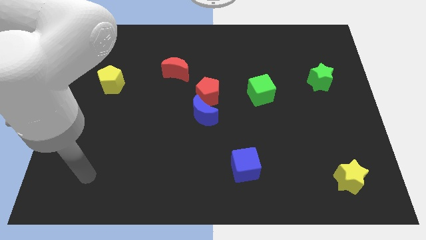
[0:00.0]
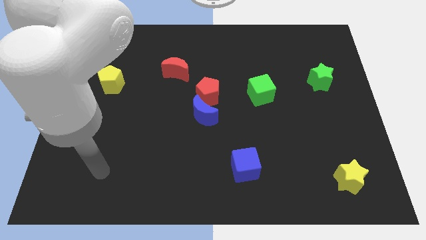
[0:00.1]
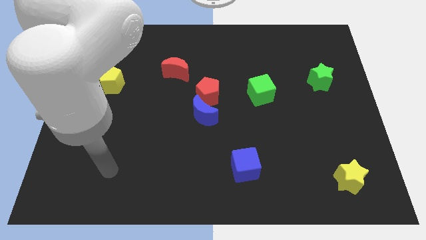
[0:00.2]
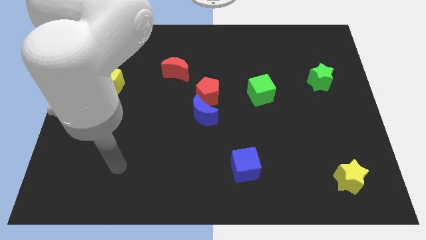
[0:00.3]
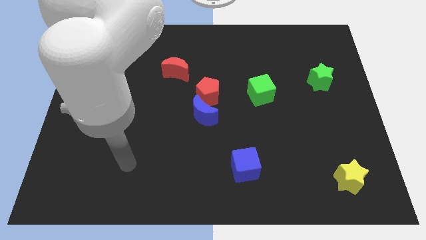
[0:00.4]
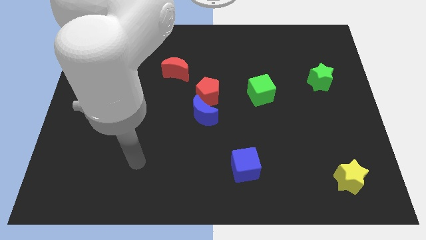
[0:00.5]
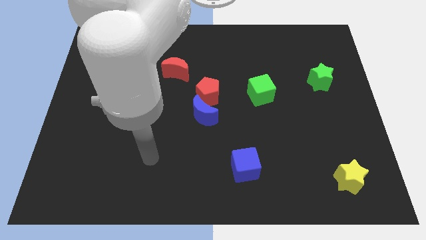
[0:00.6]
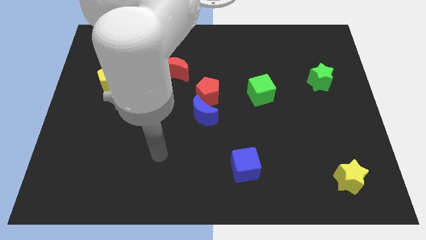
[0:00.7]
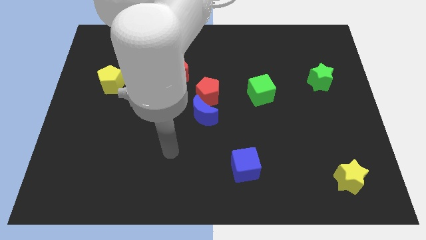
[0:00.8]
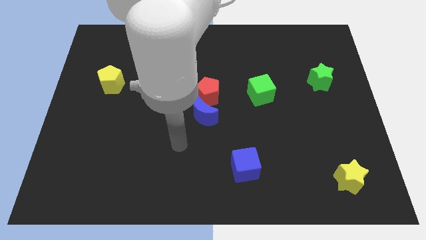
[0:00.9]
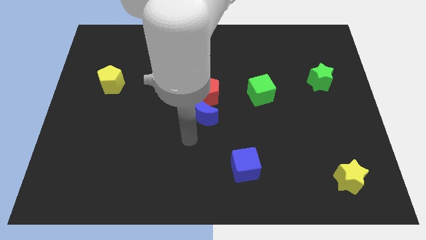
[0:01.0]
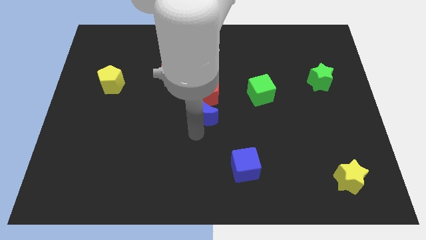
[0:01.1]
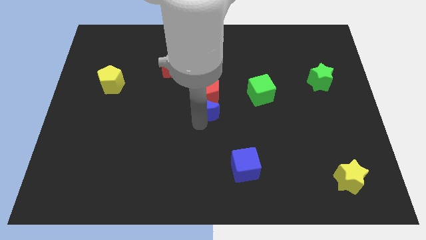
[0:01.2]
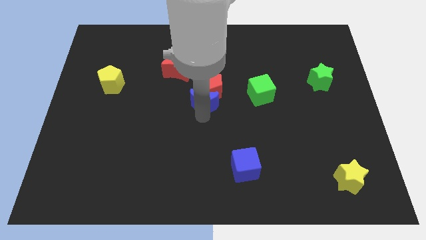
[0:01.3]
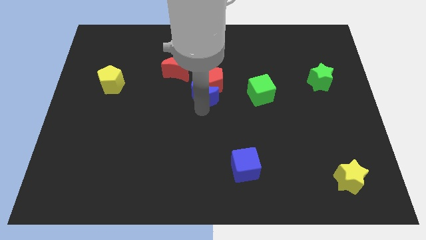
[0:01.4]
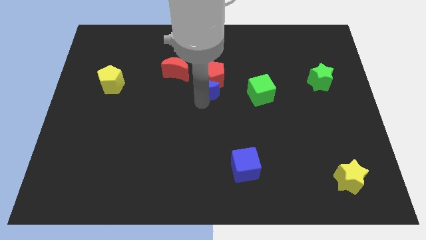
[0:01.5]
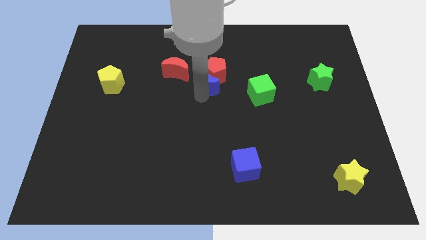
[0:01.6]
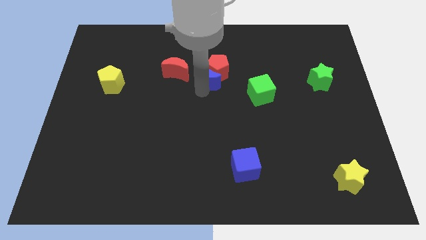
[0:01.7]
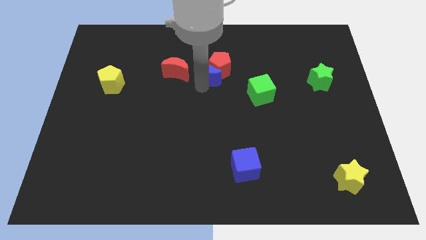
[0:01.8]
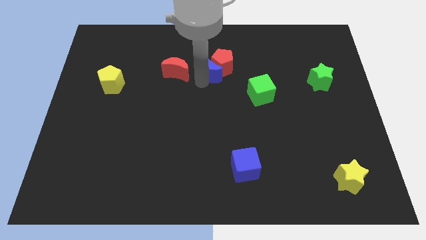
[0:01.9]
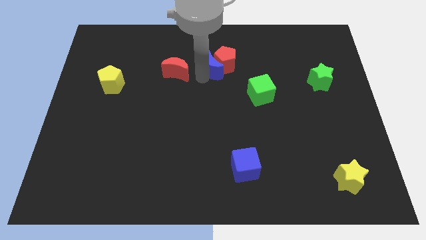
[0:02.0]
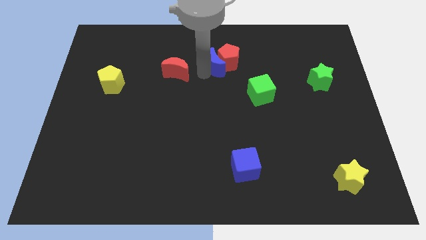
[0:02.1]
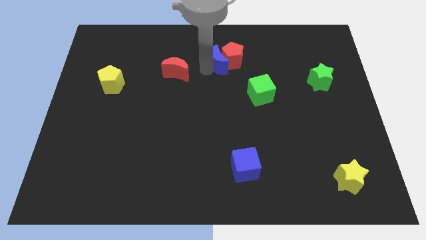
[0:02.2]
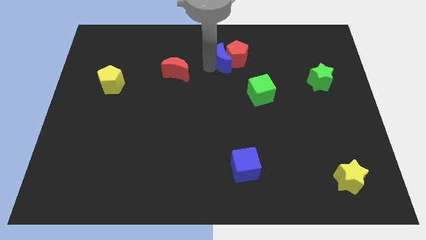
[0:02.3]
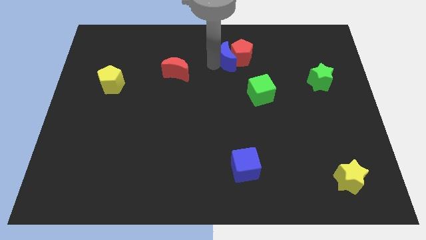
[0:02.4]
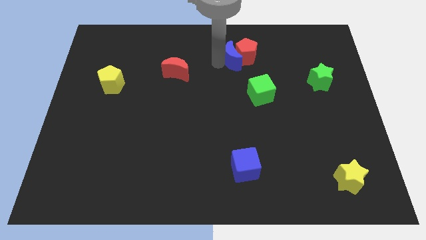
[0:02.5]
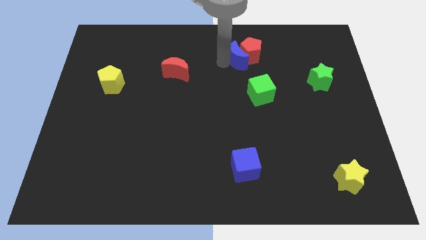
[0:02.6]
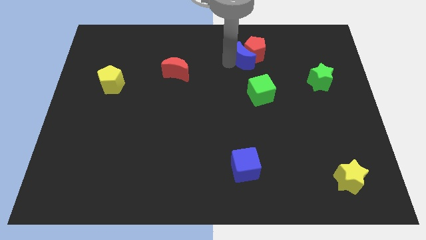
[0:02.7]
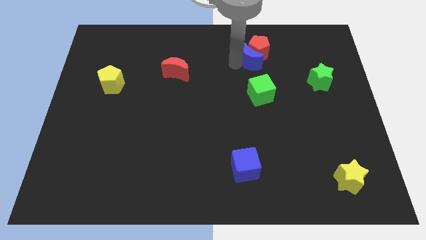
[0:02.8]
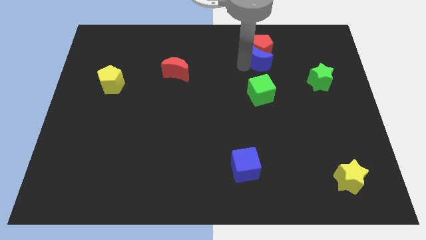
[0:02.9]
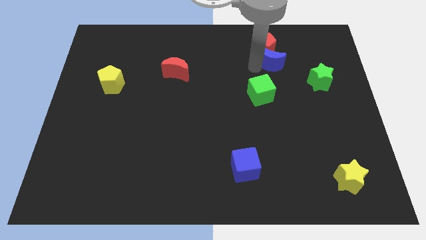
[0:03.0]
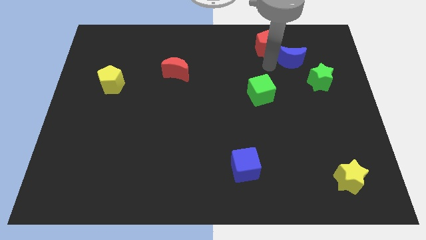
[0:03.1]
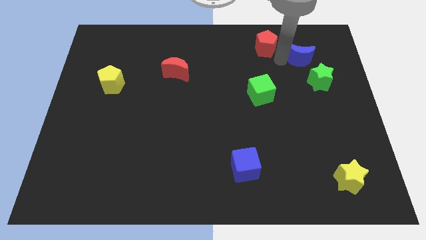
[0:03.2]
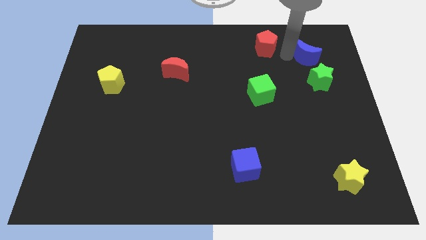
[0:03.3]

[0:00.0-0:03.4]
move the red pentagon away from the blue moon

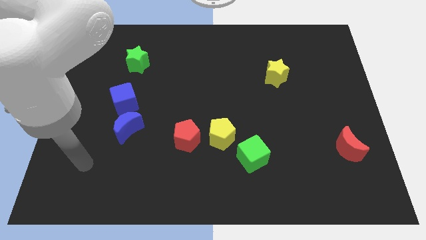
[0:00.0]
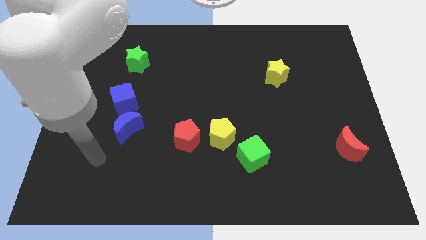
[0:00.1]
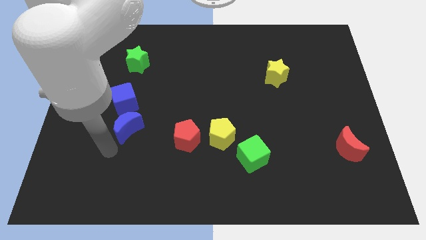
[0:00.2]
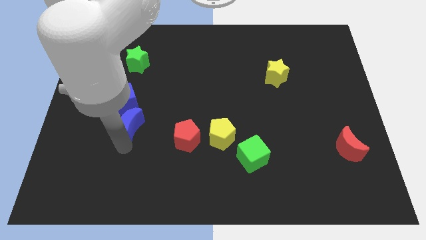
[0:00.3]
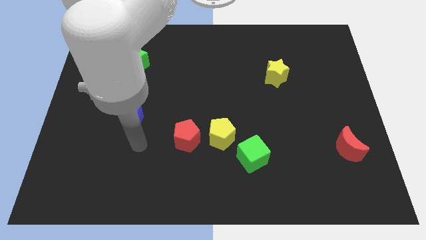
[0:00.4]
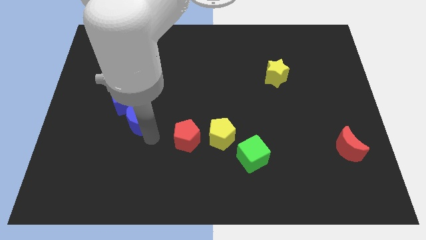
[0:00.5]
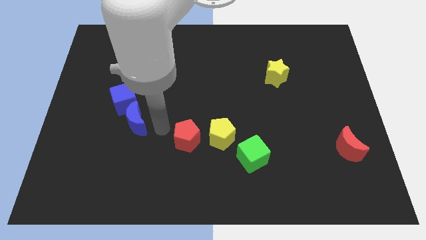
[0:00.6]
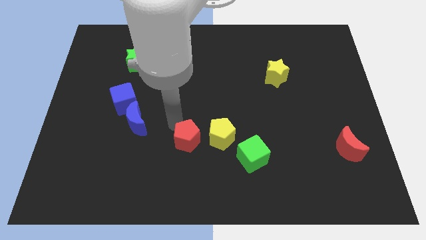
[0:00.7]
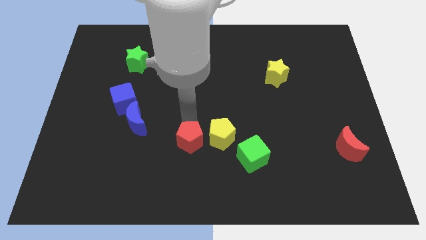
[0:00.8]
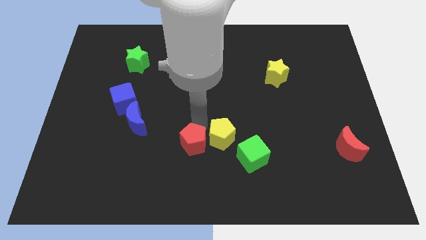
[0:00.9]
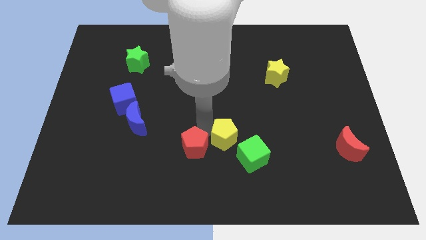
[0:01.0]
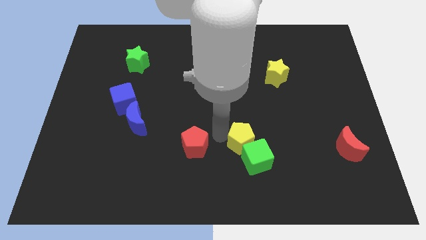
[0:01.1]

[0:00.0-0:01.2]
move the red pentagon away from the yellow pentagon

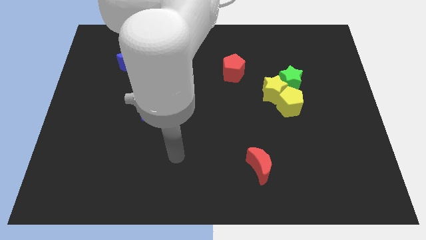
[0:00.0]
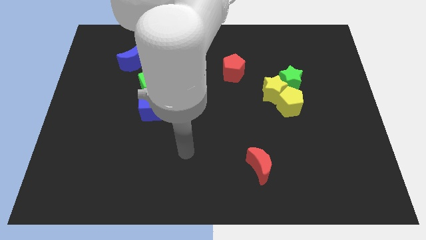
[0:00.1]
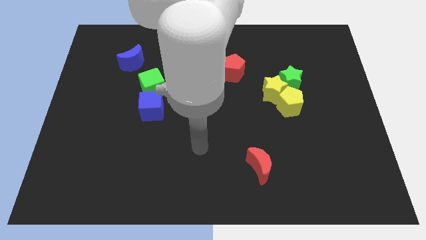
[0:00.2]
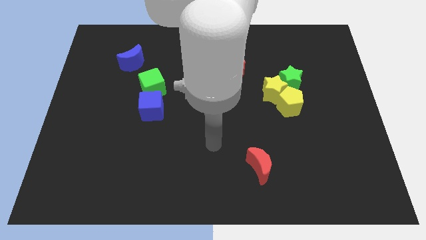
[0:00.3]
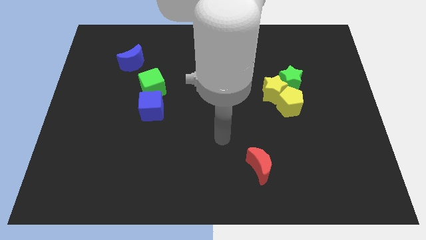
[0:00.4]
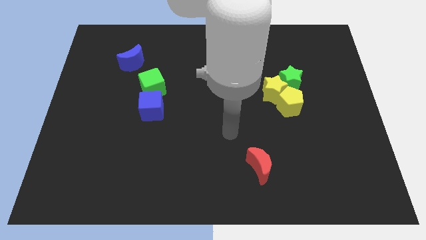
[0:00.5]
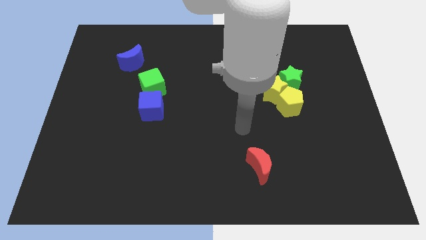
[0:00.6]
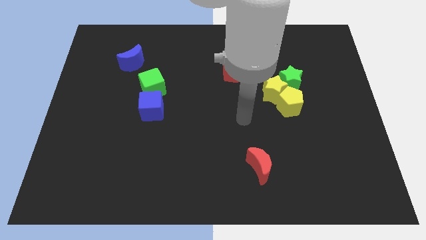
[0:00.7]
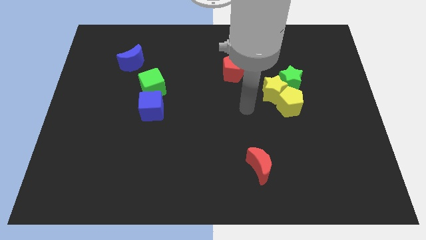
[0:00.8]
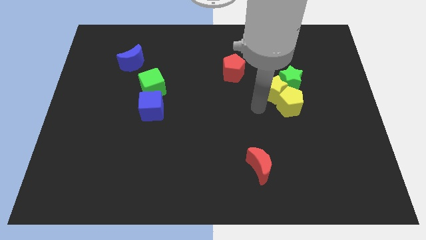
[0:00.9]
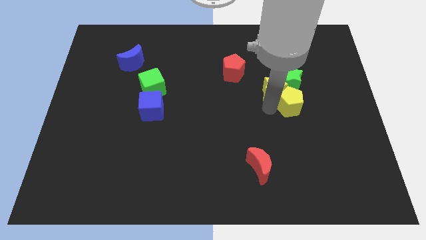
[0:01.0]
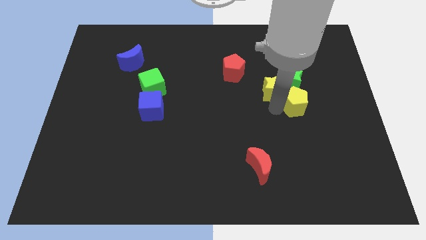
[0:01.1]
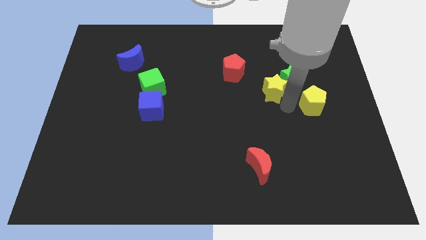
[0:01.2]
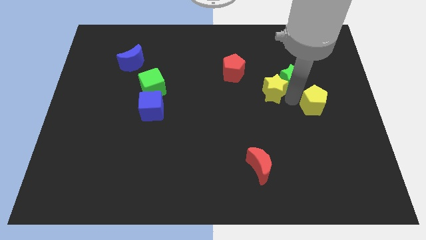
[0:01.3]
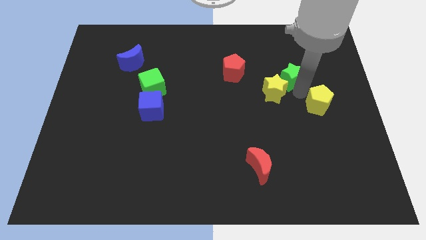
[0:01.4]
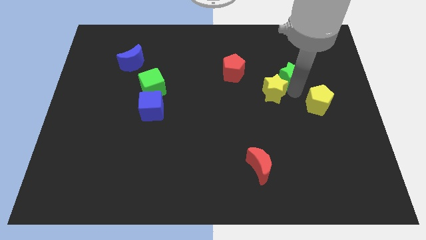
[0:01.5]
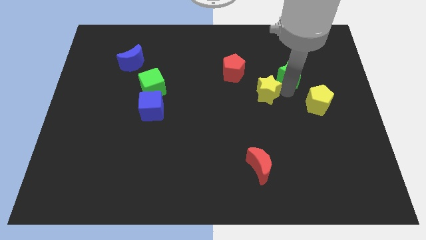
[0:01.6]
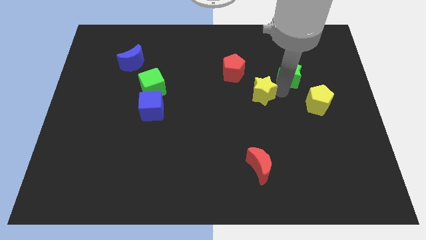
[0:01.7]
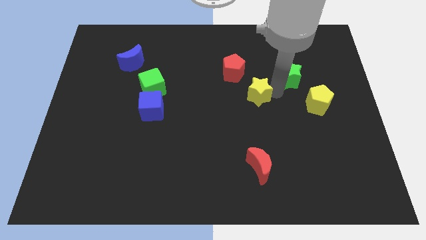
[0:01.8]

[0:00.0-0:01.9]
separate the yellow star from the green star and yellow pentagon

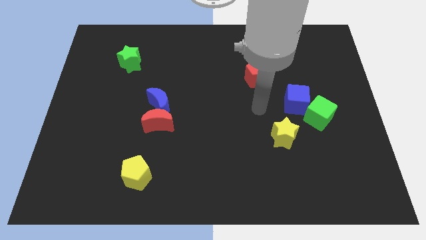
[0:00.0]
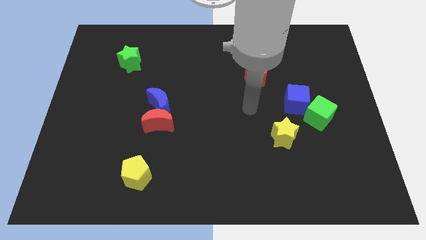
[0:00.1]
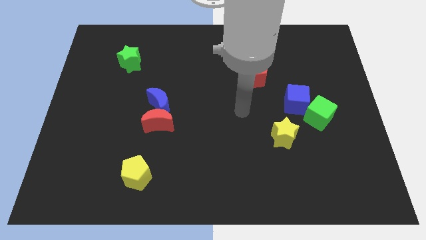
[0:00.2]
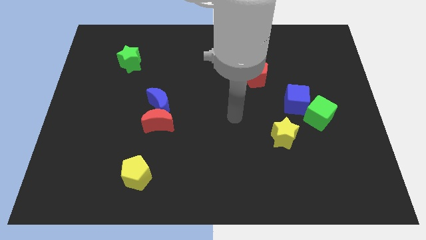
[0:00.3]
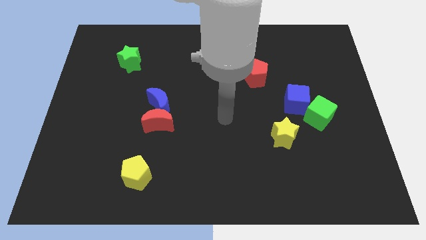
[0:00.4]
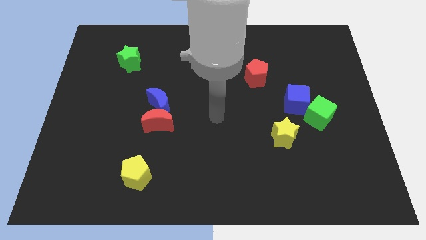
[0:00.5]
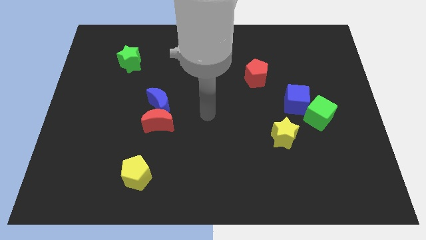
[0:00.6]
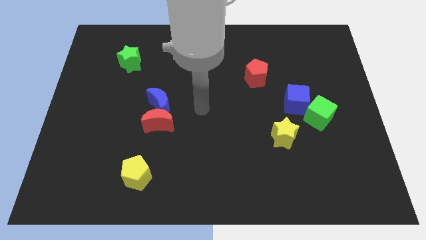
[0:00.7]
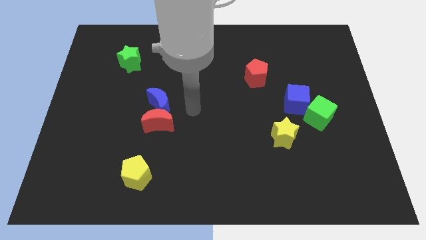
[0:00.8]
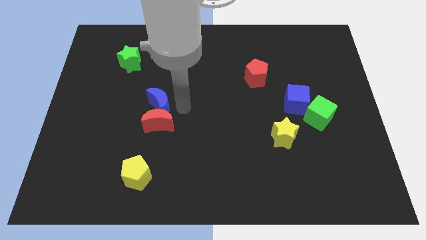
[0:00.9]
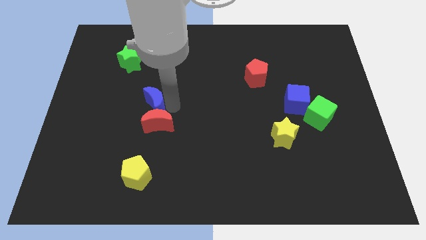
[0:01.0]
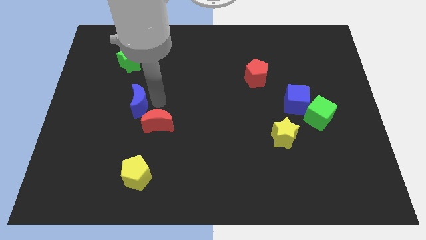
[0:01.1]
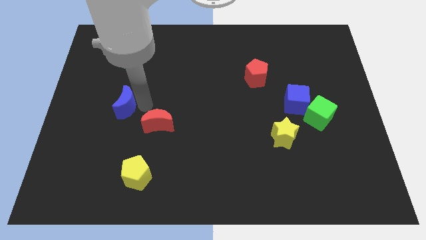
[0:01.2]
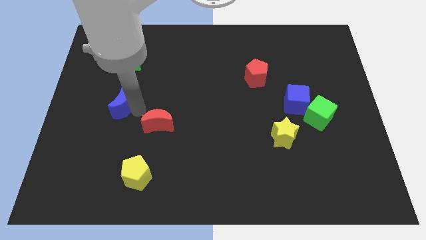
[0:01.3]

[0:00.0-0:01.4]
move the red moon away from the blue moon

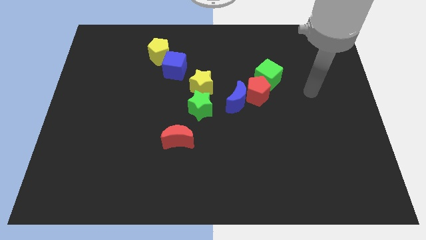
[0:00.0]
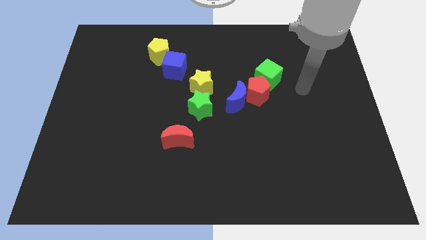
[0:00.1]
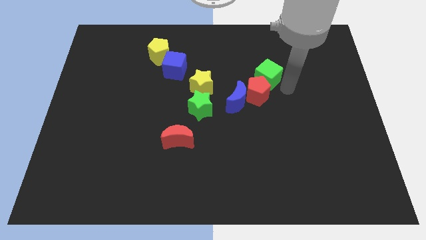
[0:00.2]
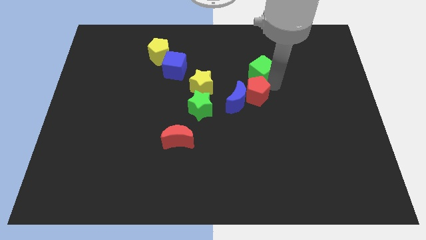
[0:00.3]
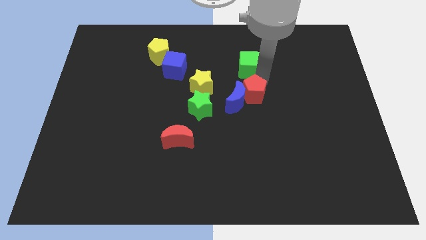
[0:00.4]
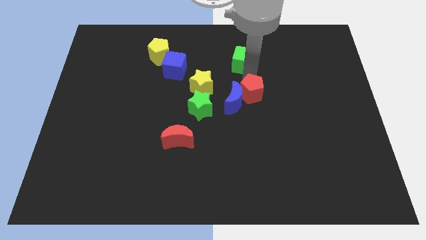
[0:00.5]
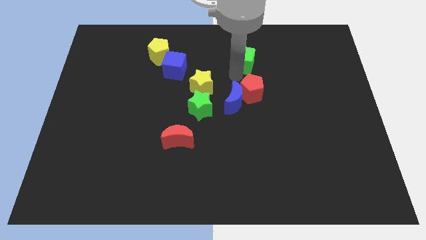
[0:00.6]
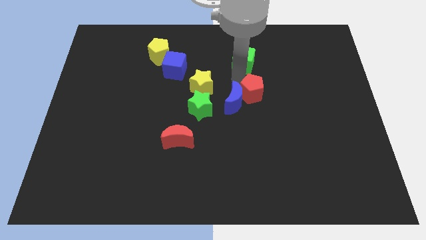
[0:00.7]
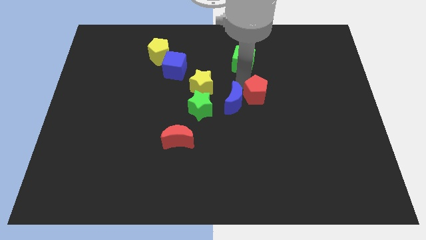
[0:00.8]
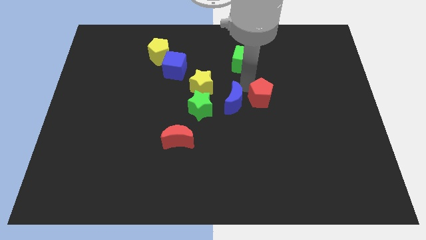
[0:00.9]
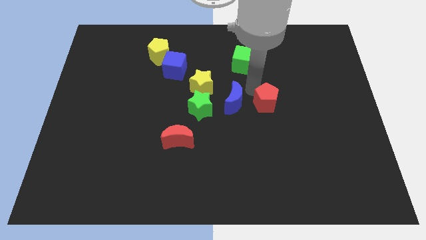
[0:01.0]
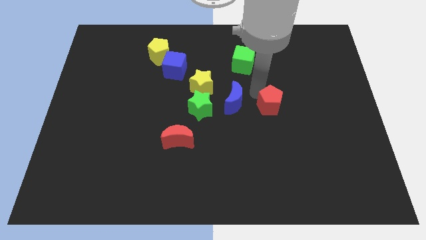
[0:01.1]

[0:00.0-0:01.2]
separate the red pentagon from the blue moon and green cube

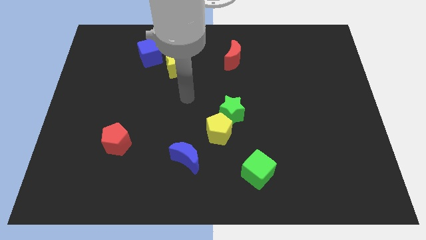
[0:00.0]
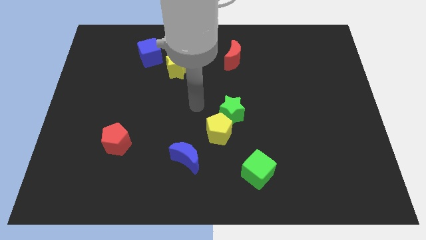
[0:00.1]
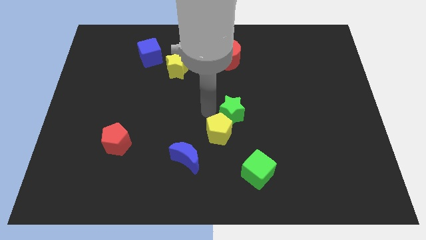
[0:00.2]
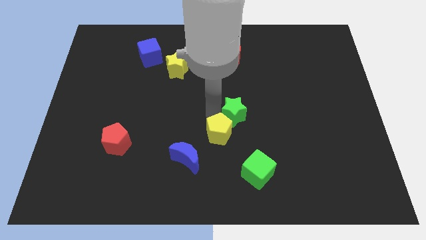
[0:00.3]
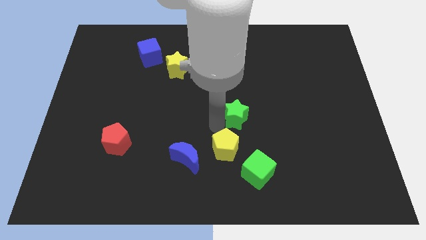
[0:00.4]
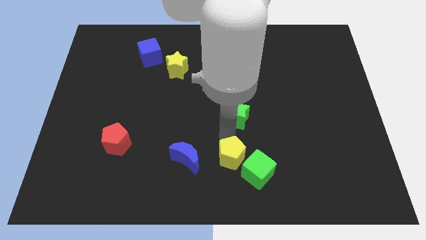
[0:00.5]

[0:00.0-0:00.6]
move the green star away from the yellow pentagon
